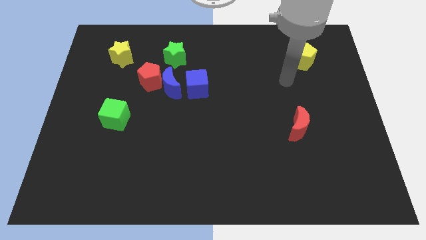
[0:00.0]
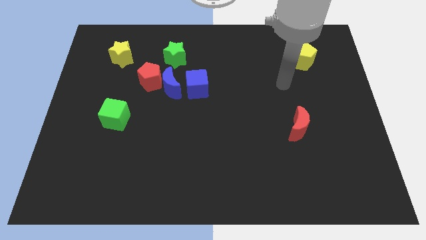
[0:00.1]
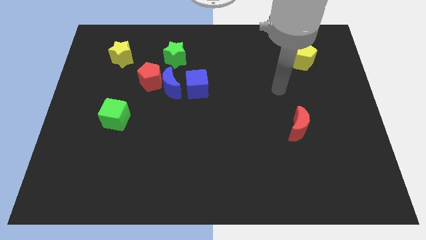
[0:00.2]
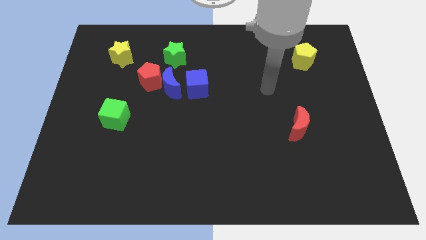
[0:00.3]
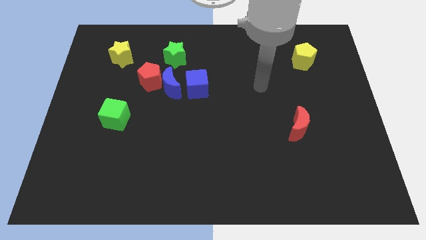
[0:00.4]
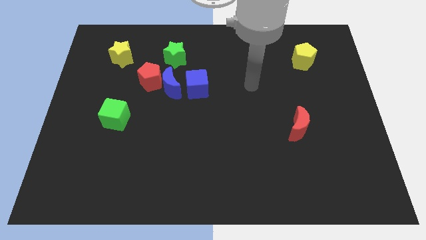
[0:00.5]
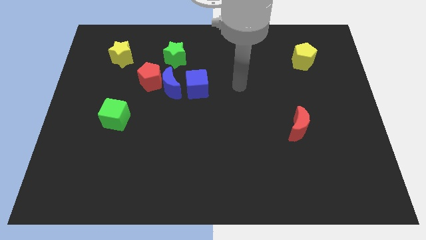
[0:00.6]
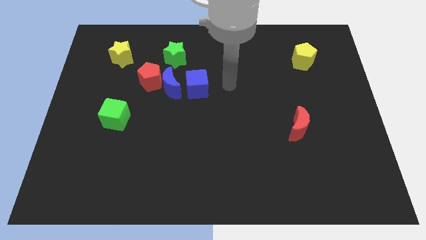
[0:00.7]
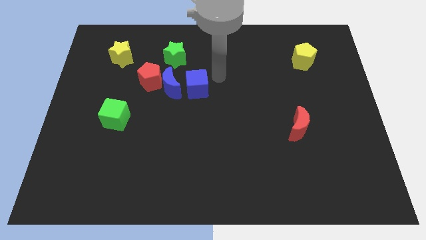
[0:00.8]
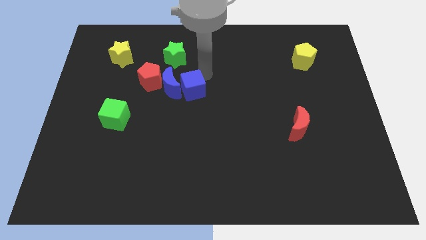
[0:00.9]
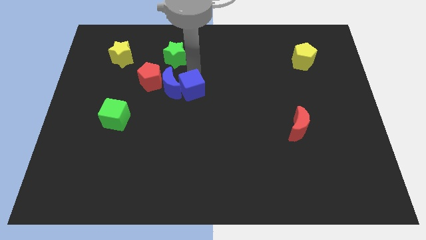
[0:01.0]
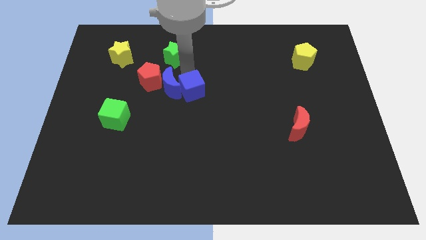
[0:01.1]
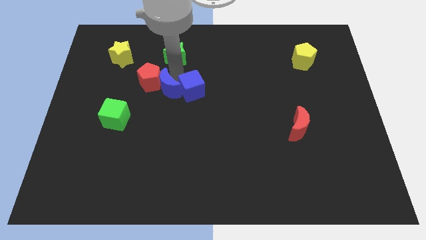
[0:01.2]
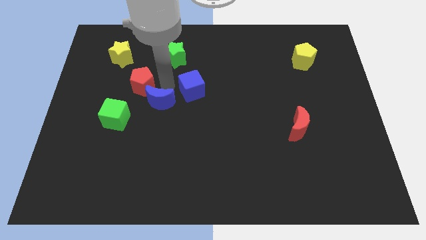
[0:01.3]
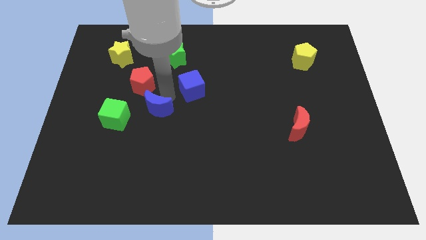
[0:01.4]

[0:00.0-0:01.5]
separate the blue cube from the blue moon

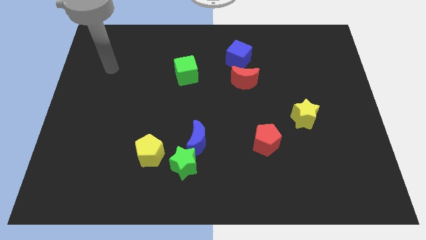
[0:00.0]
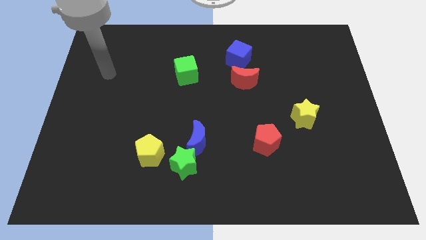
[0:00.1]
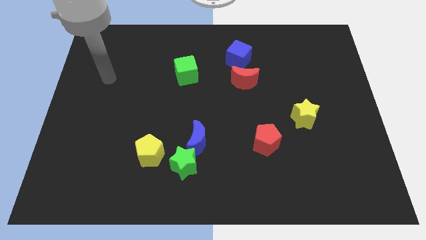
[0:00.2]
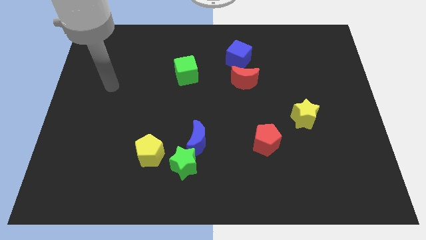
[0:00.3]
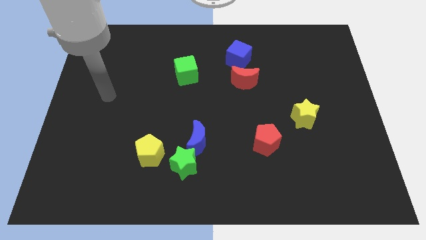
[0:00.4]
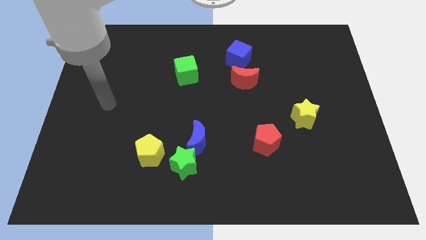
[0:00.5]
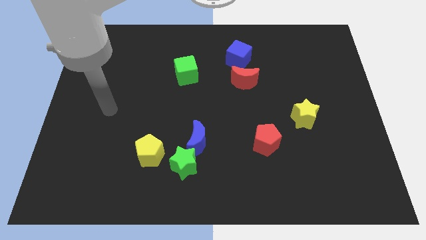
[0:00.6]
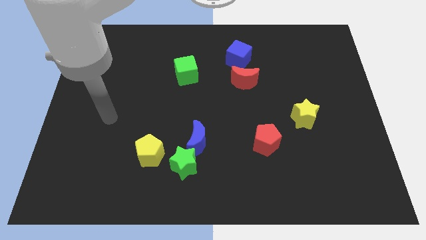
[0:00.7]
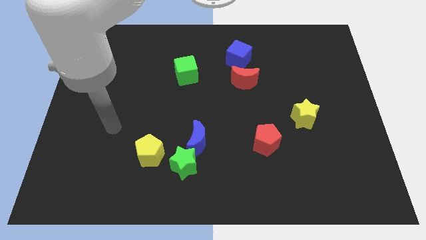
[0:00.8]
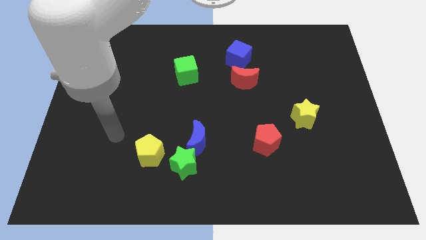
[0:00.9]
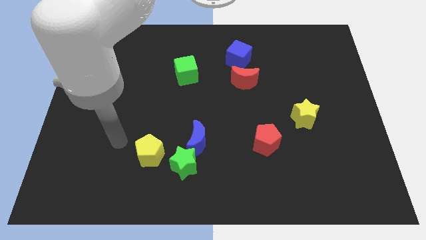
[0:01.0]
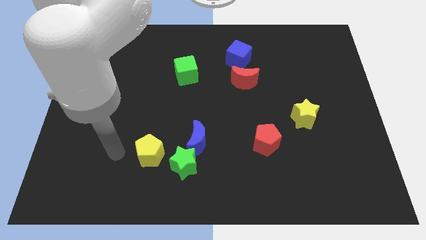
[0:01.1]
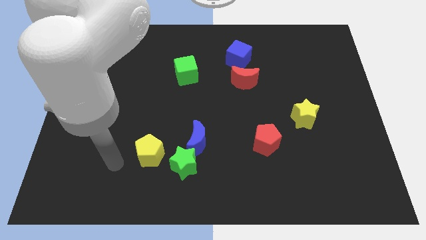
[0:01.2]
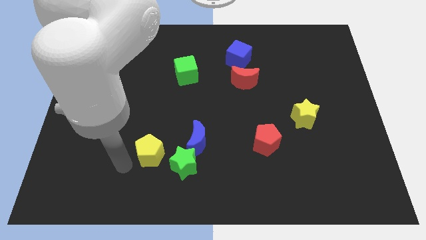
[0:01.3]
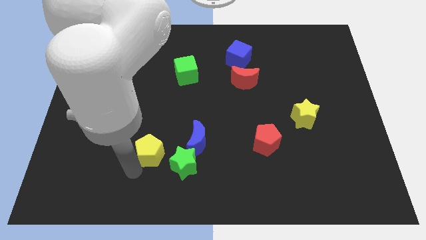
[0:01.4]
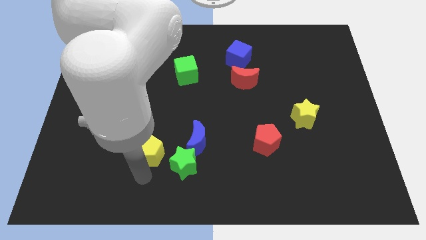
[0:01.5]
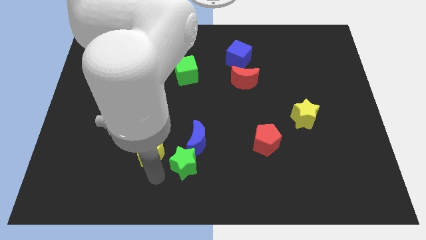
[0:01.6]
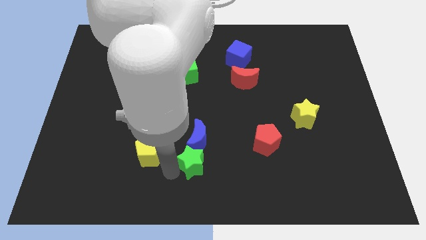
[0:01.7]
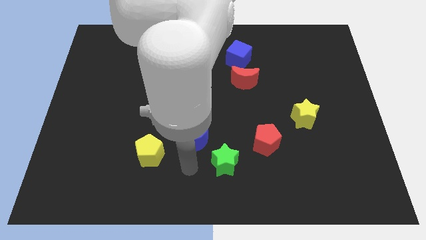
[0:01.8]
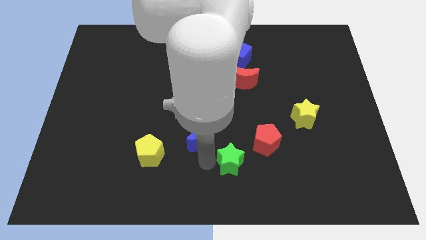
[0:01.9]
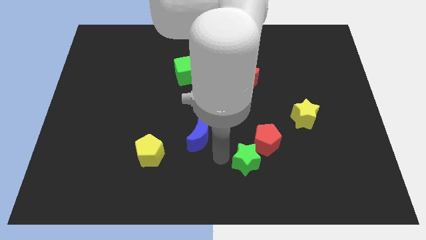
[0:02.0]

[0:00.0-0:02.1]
separate the blue moon from the green star

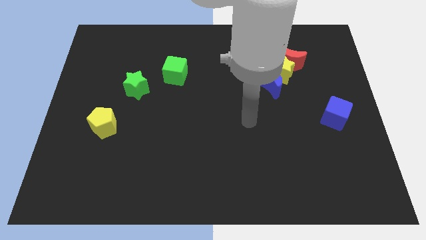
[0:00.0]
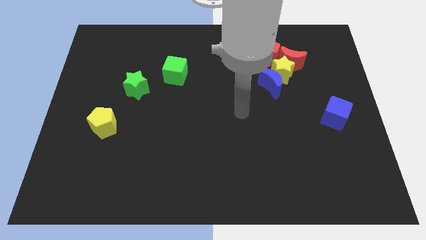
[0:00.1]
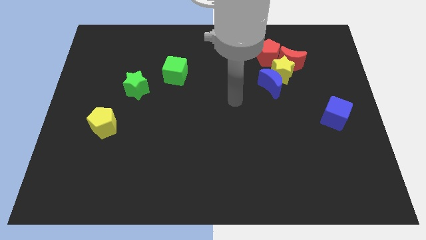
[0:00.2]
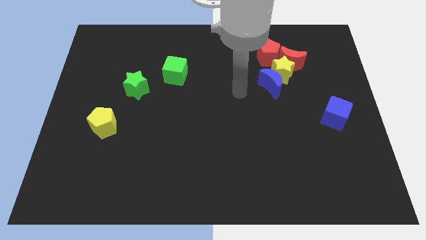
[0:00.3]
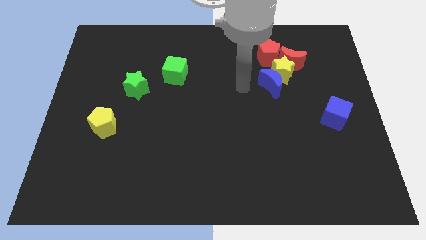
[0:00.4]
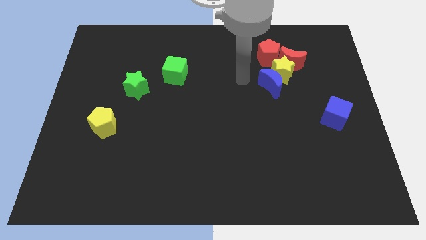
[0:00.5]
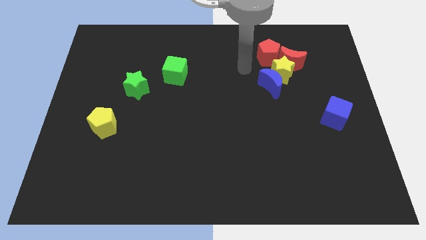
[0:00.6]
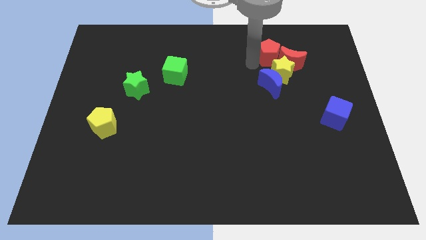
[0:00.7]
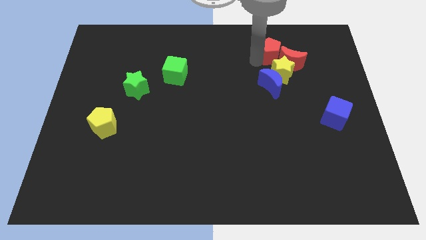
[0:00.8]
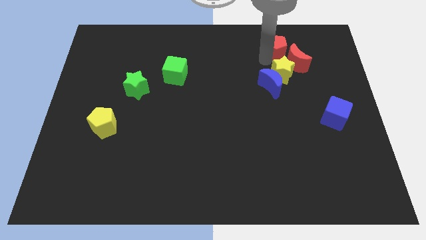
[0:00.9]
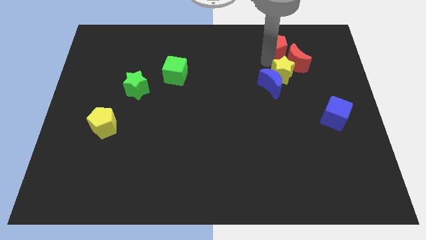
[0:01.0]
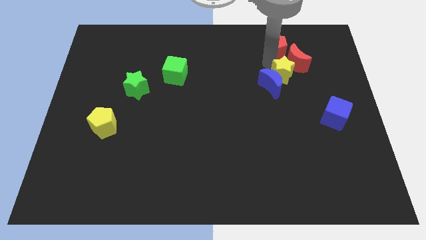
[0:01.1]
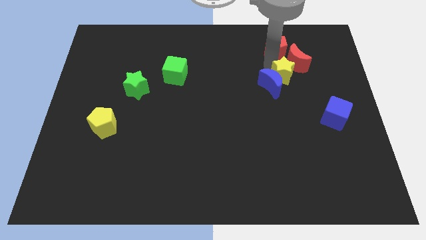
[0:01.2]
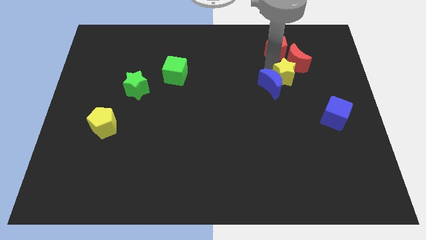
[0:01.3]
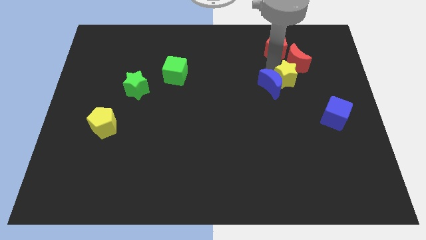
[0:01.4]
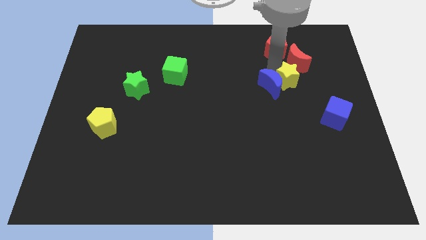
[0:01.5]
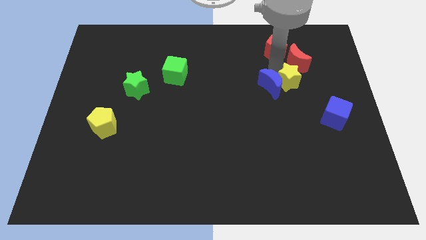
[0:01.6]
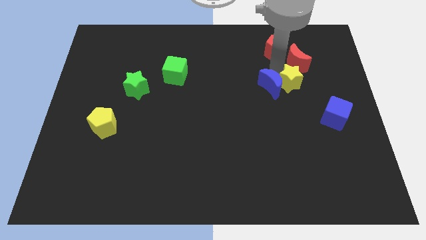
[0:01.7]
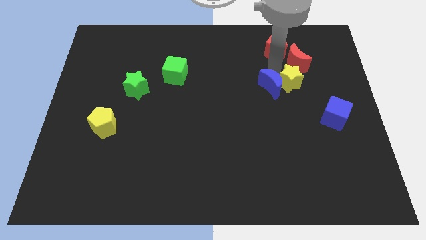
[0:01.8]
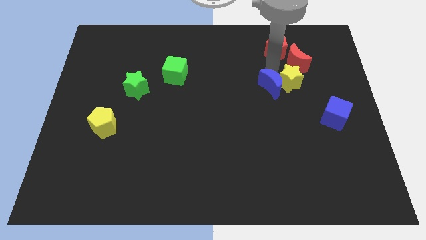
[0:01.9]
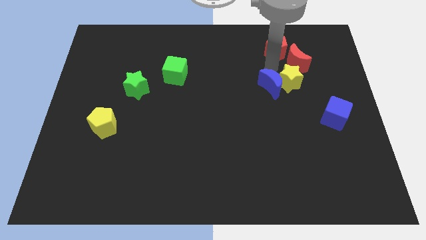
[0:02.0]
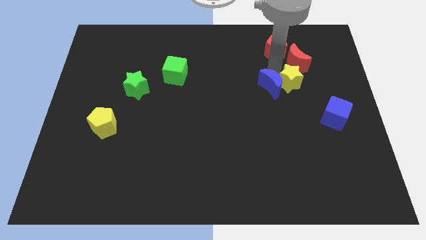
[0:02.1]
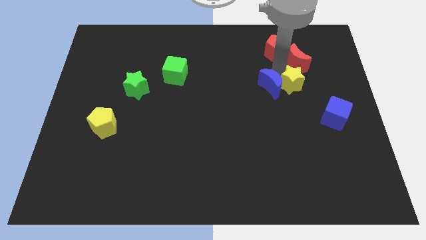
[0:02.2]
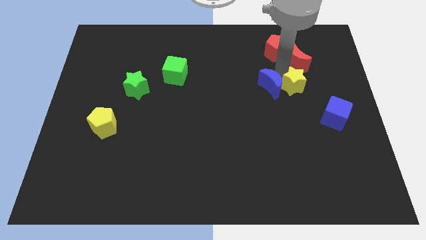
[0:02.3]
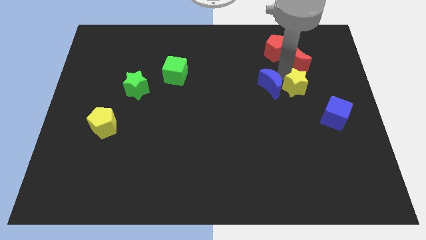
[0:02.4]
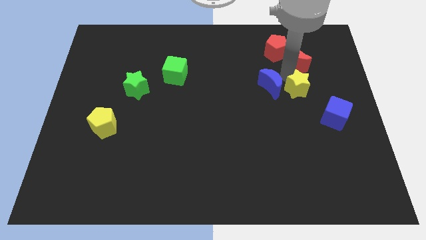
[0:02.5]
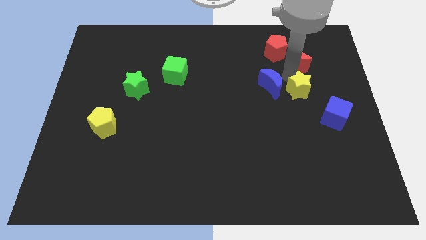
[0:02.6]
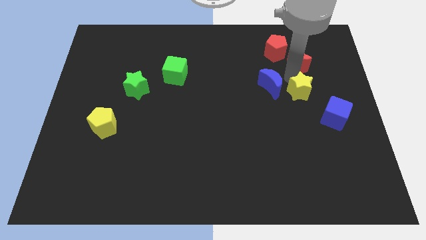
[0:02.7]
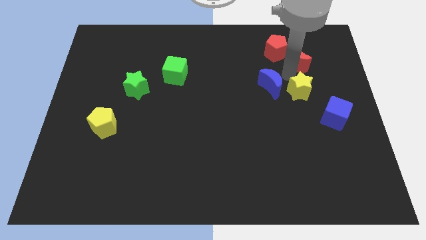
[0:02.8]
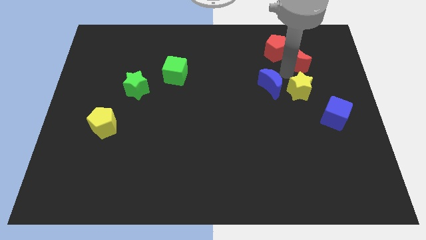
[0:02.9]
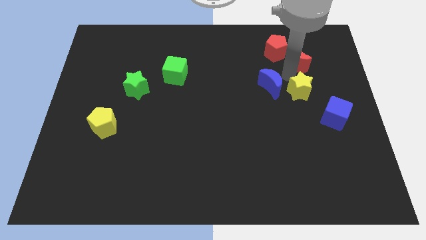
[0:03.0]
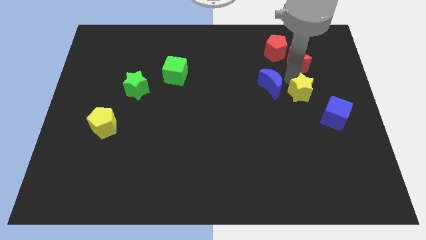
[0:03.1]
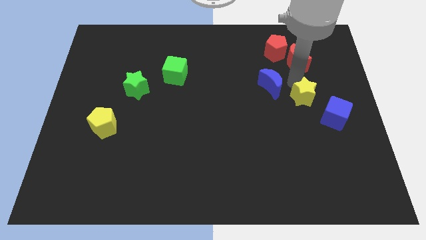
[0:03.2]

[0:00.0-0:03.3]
pull the yellow star apart from the red moon, blue moon, and red pentagon

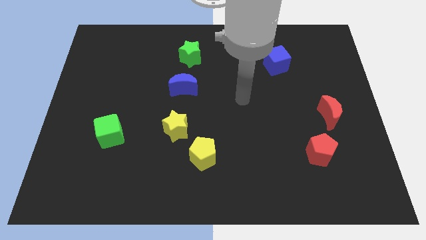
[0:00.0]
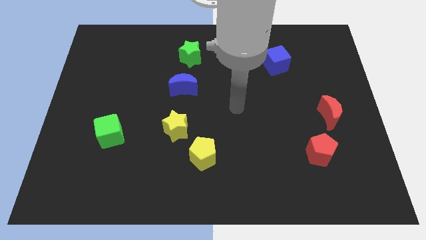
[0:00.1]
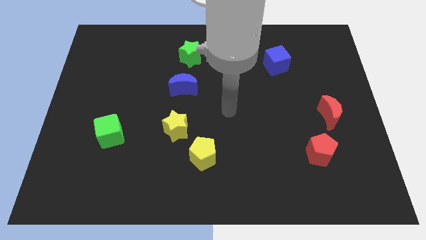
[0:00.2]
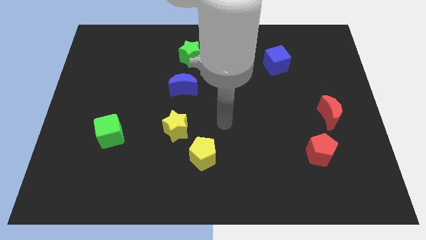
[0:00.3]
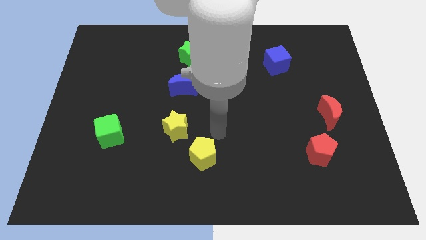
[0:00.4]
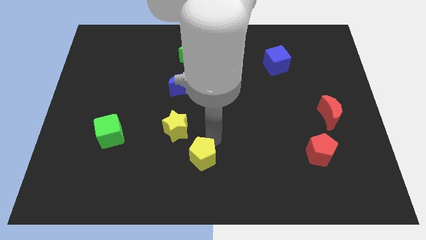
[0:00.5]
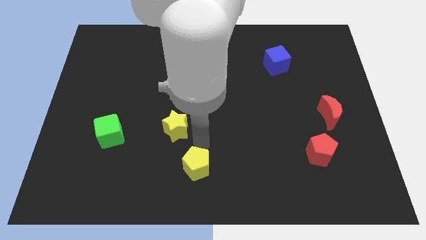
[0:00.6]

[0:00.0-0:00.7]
move the yellow star away from the yellow pentagon

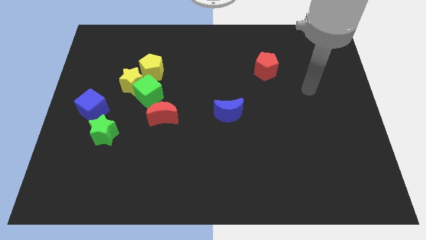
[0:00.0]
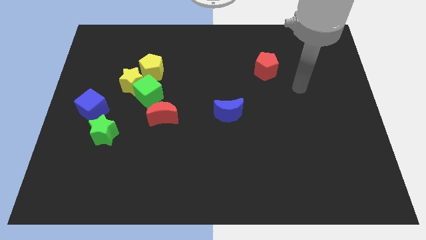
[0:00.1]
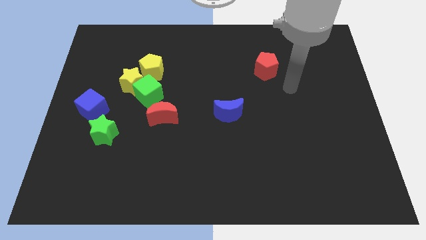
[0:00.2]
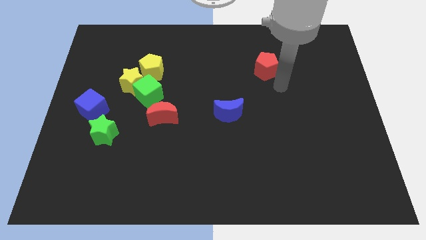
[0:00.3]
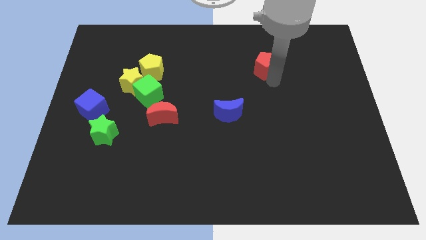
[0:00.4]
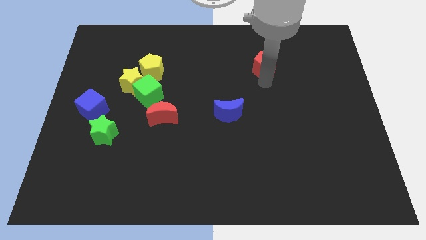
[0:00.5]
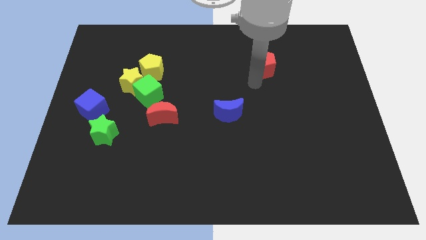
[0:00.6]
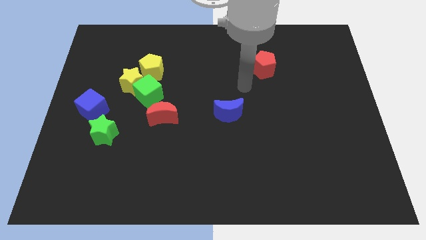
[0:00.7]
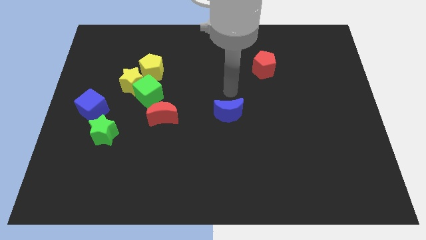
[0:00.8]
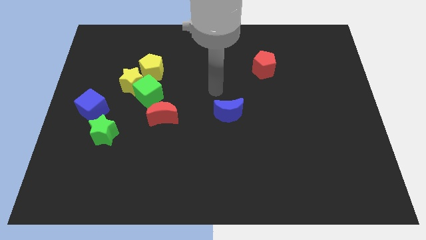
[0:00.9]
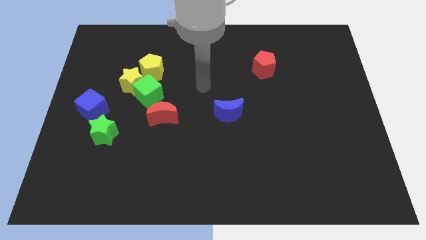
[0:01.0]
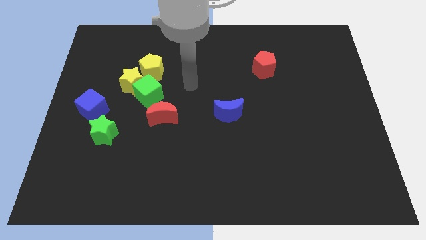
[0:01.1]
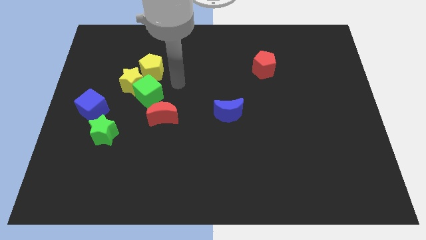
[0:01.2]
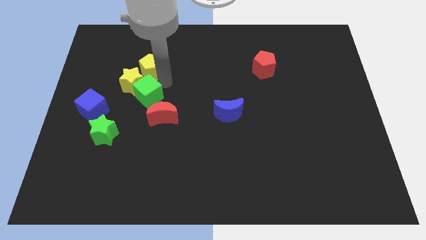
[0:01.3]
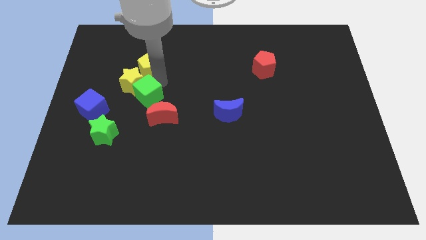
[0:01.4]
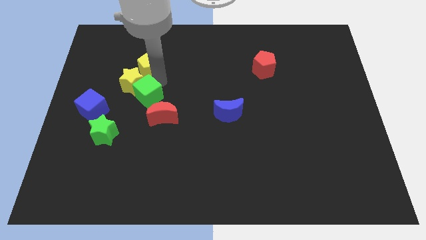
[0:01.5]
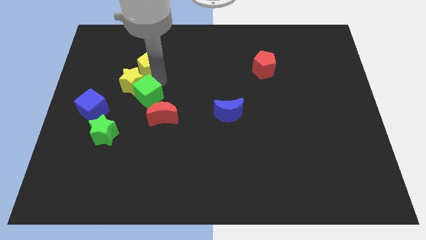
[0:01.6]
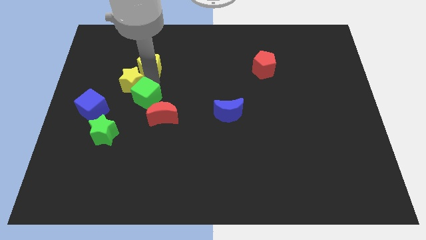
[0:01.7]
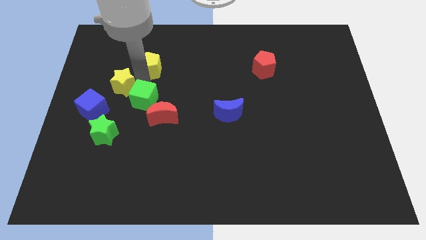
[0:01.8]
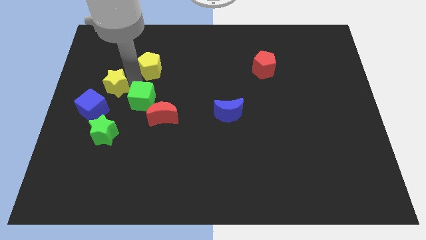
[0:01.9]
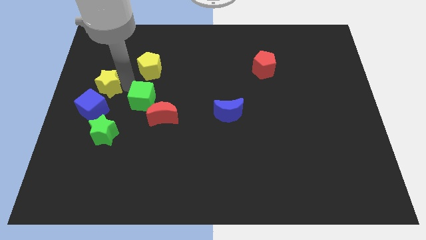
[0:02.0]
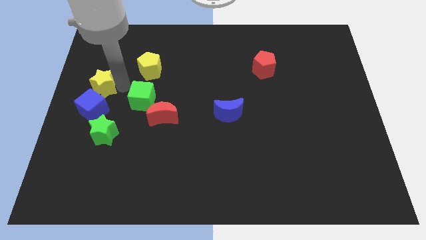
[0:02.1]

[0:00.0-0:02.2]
pull the yellow star apart from the green cube and yellow pentagon
